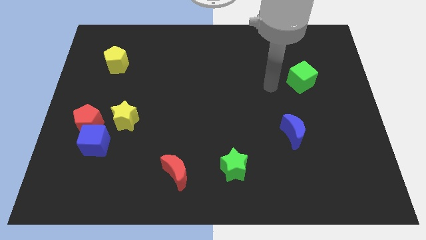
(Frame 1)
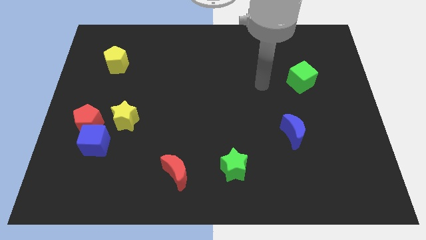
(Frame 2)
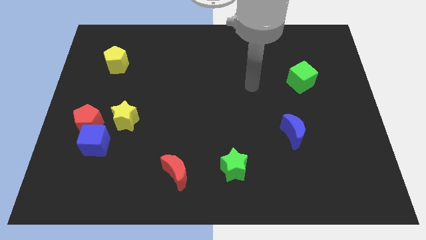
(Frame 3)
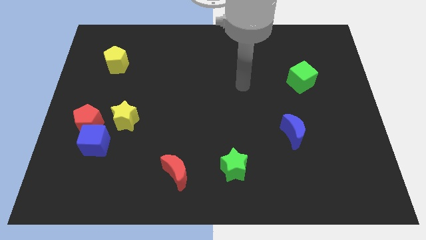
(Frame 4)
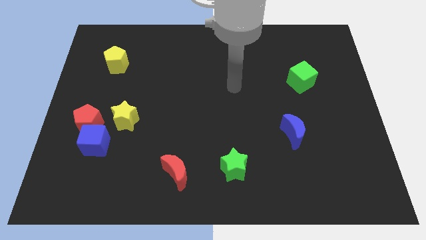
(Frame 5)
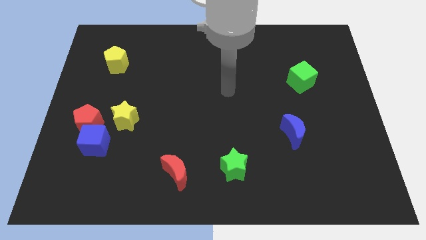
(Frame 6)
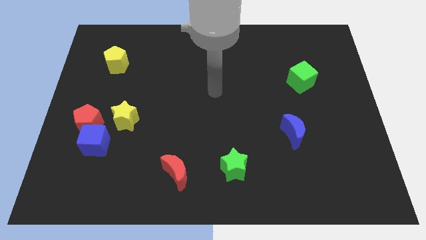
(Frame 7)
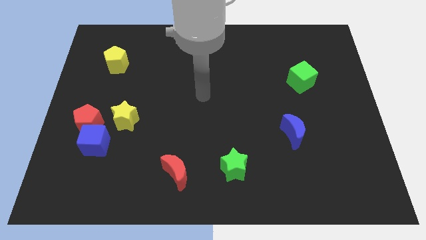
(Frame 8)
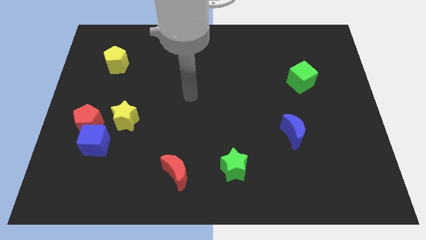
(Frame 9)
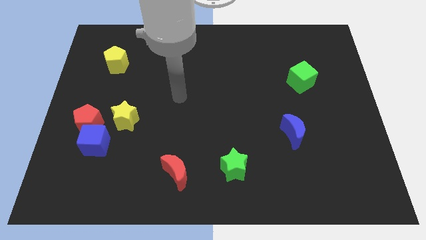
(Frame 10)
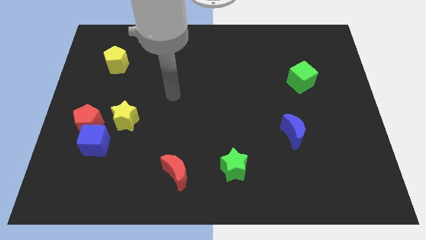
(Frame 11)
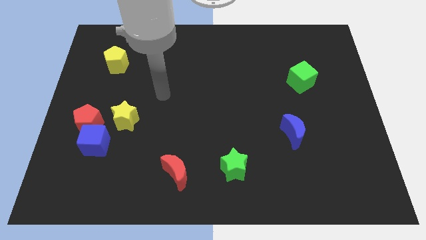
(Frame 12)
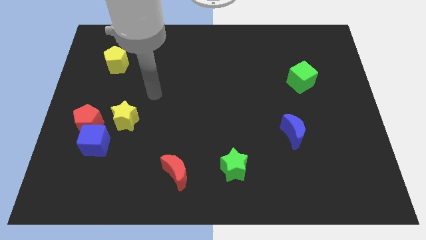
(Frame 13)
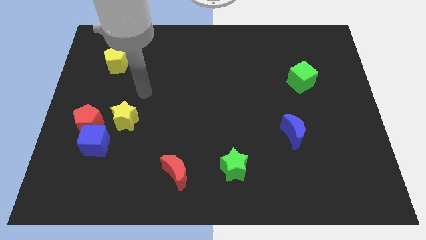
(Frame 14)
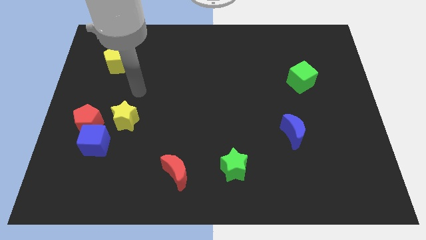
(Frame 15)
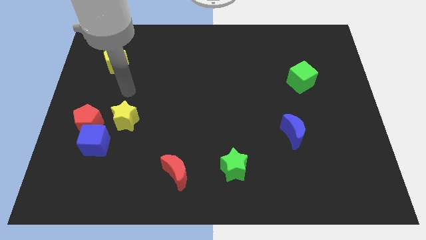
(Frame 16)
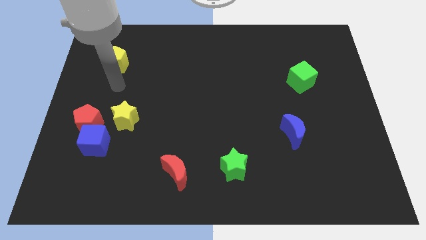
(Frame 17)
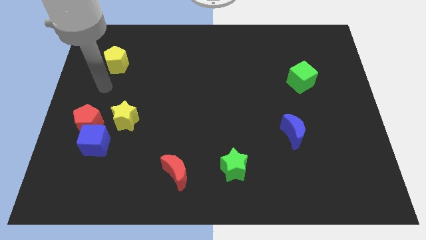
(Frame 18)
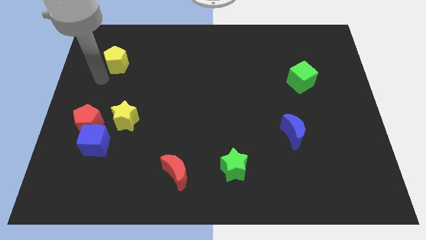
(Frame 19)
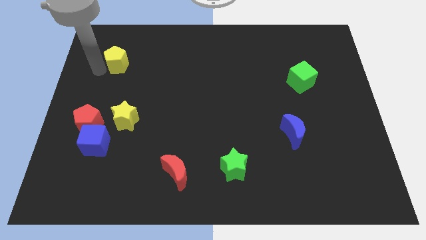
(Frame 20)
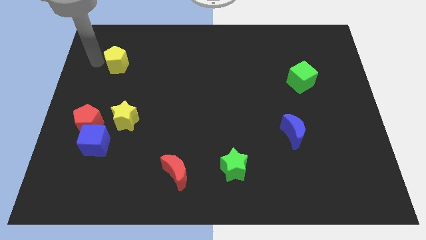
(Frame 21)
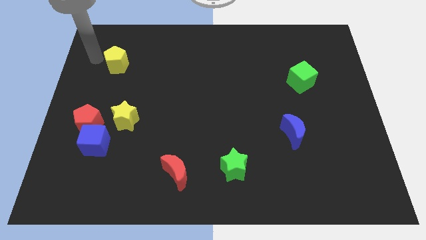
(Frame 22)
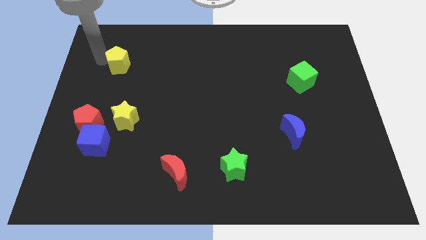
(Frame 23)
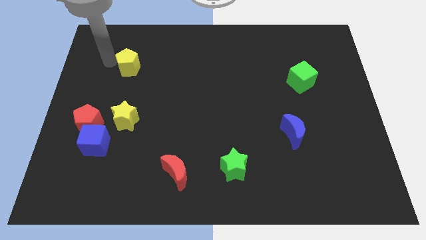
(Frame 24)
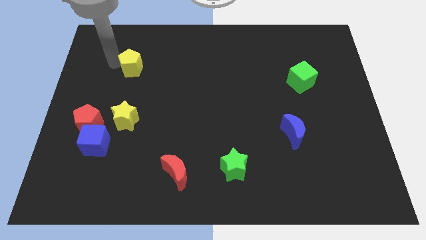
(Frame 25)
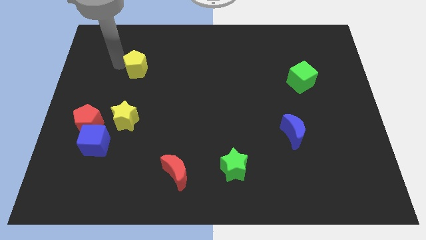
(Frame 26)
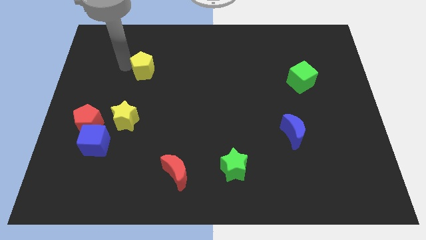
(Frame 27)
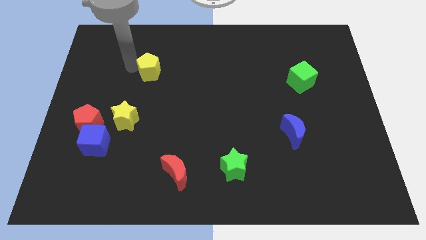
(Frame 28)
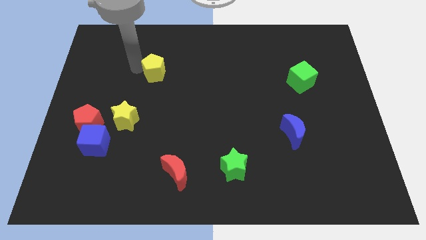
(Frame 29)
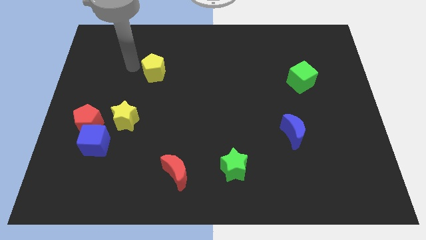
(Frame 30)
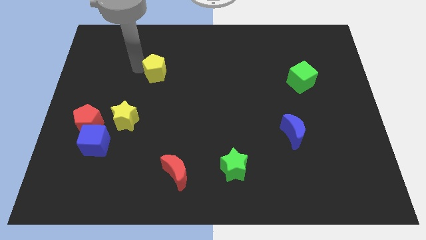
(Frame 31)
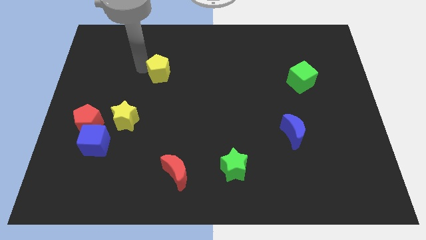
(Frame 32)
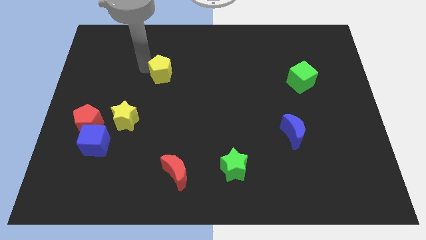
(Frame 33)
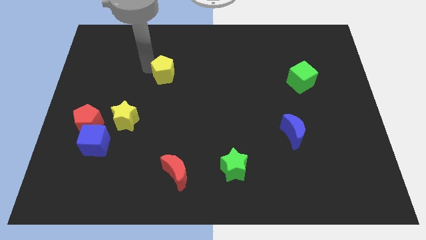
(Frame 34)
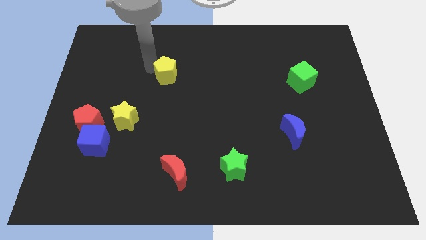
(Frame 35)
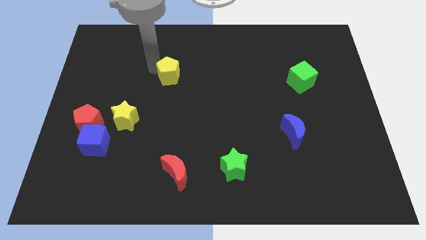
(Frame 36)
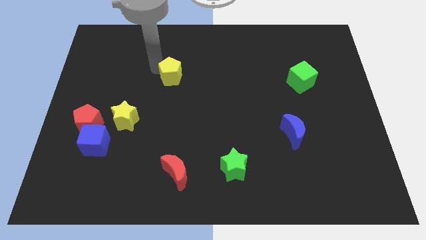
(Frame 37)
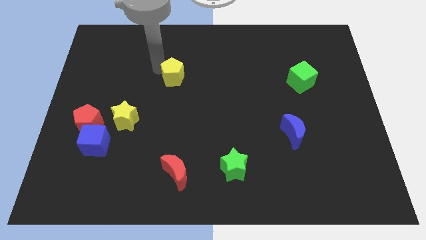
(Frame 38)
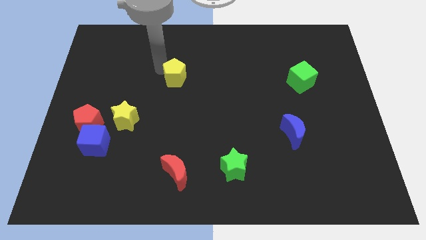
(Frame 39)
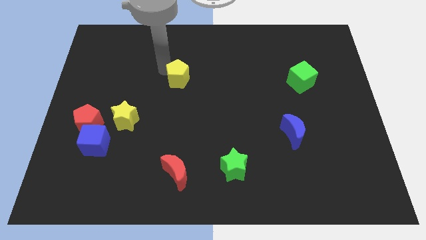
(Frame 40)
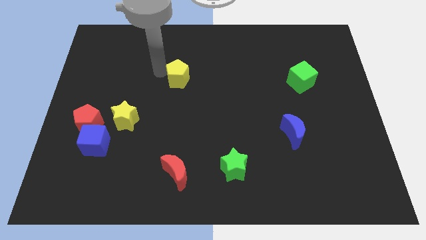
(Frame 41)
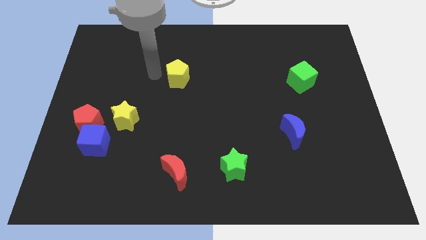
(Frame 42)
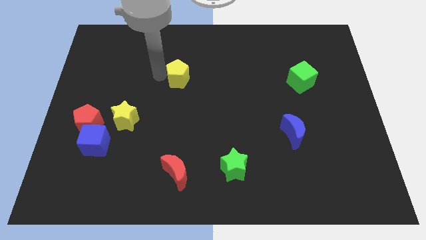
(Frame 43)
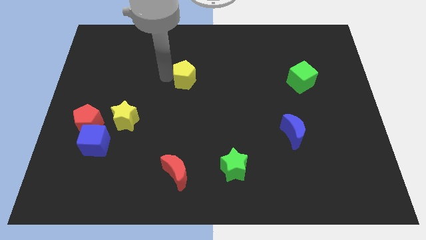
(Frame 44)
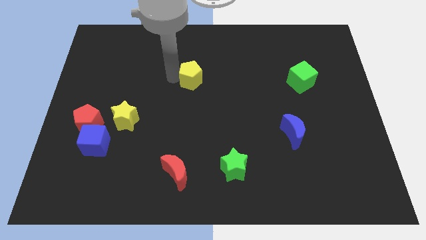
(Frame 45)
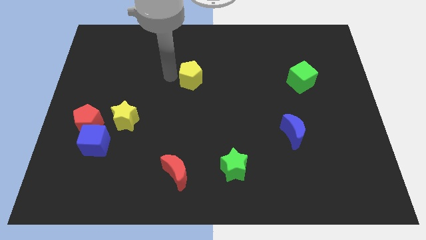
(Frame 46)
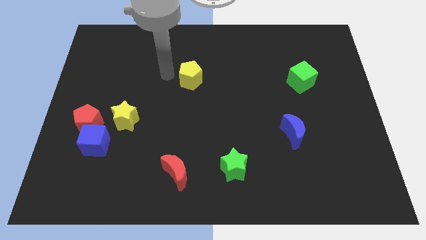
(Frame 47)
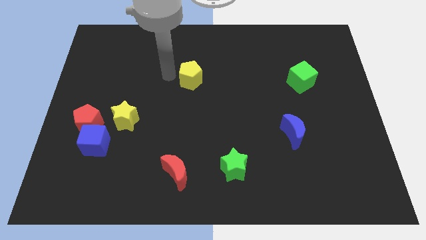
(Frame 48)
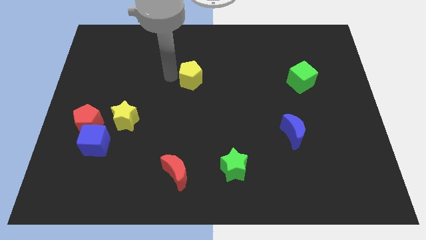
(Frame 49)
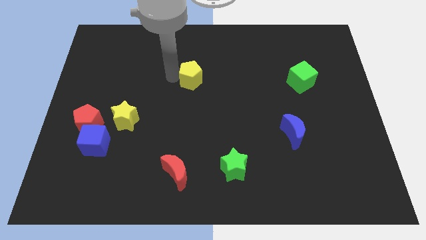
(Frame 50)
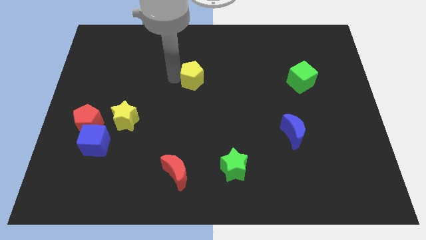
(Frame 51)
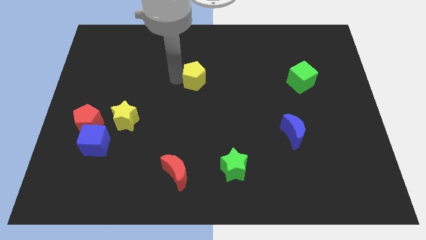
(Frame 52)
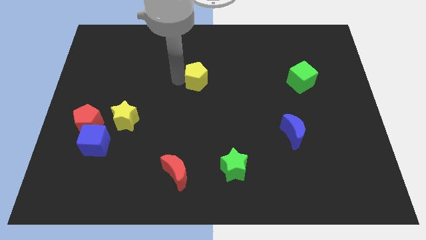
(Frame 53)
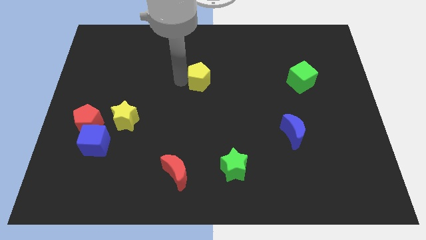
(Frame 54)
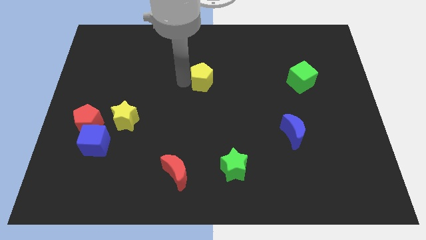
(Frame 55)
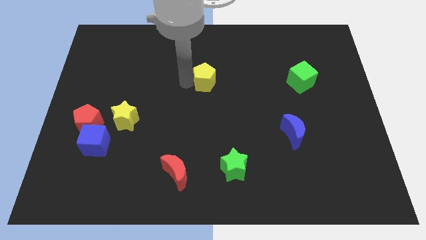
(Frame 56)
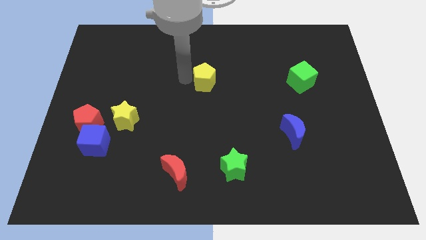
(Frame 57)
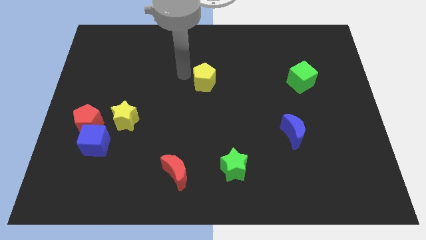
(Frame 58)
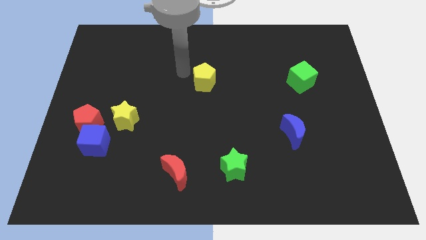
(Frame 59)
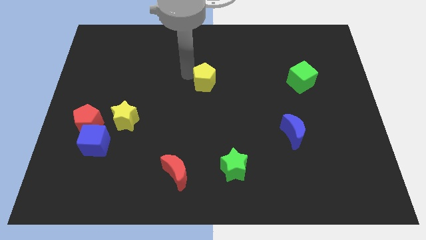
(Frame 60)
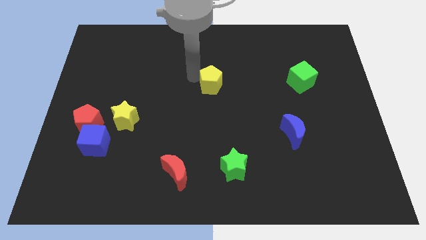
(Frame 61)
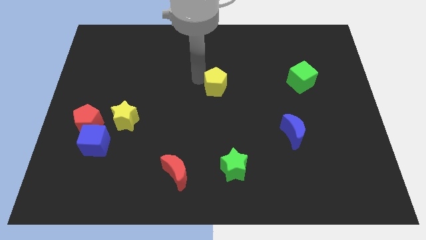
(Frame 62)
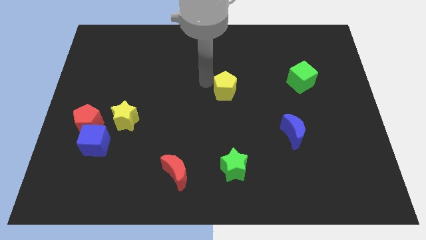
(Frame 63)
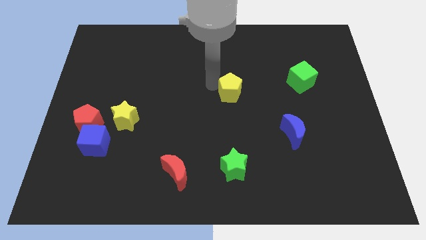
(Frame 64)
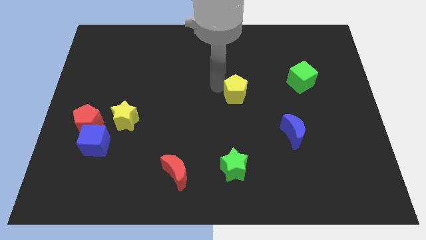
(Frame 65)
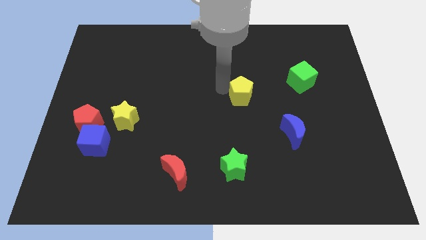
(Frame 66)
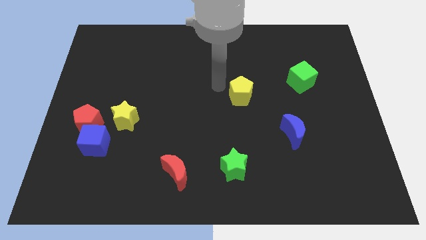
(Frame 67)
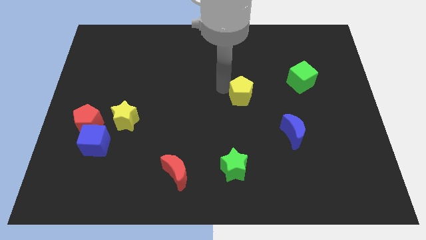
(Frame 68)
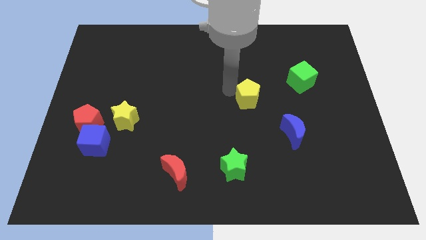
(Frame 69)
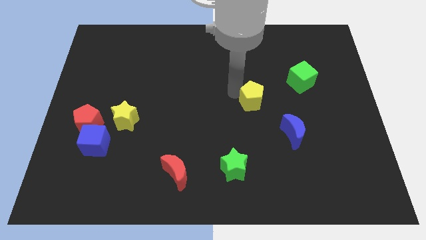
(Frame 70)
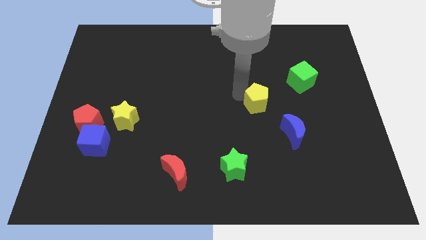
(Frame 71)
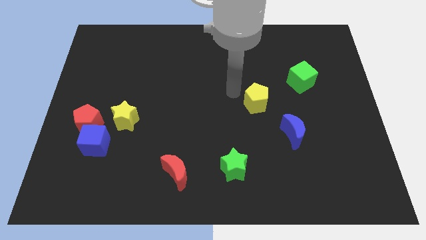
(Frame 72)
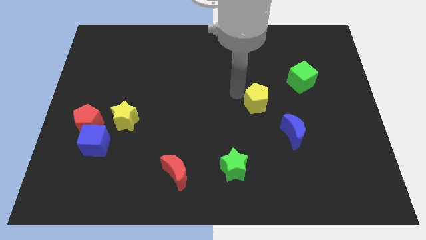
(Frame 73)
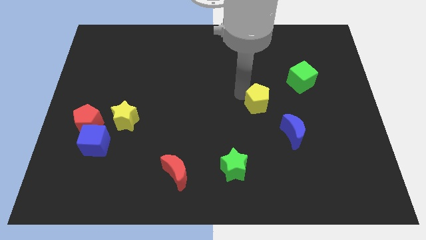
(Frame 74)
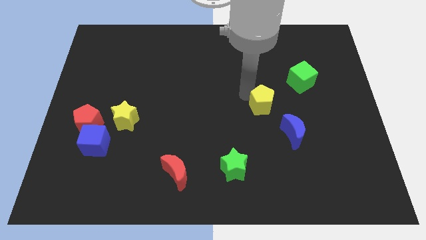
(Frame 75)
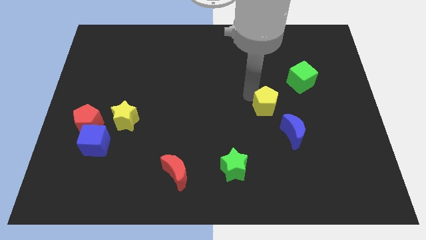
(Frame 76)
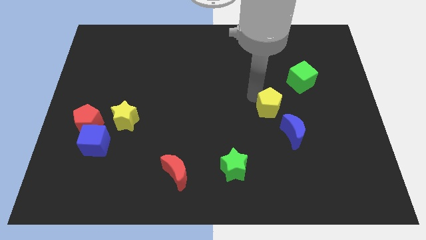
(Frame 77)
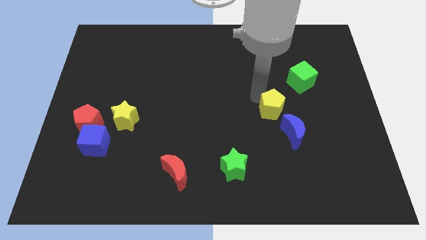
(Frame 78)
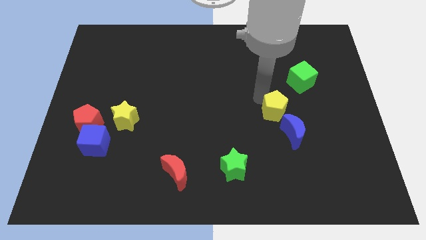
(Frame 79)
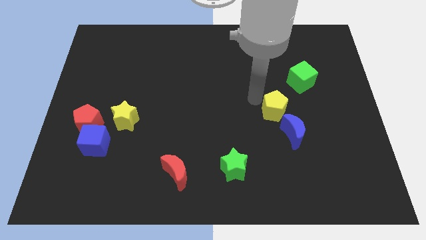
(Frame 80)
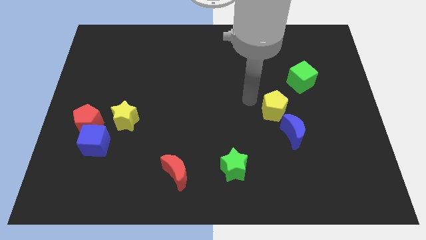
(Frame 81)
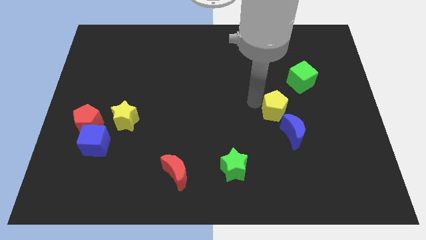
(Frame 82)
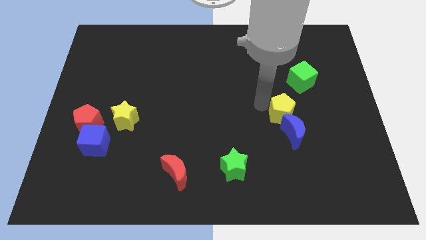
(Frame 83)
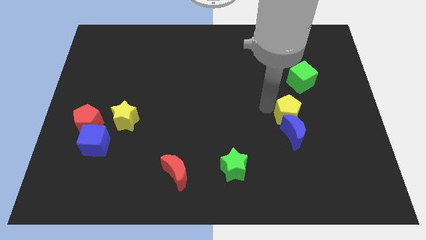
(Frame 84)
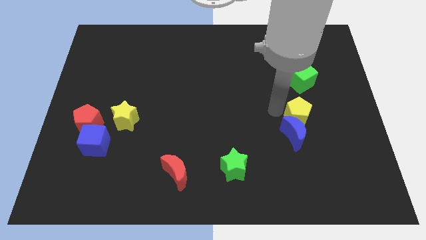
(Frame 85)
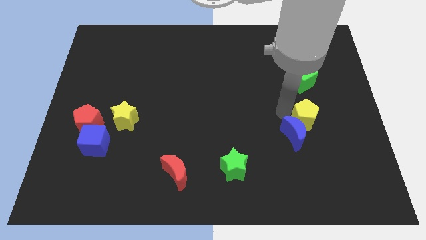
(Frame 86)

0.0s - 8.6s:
move the yellow pentagon just right of the blue moon
